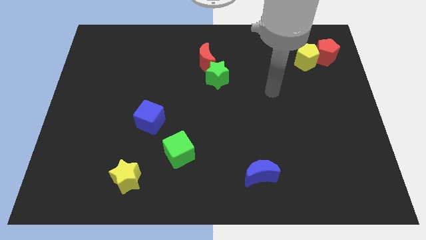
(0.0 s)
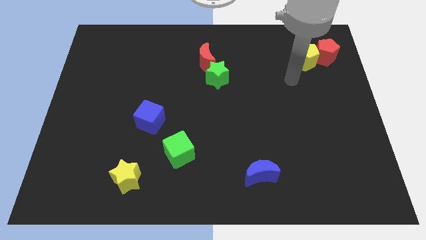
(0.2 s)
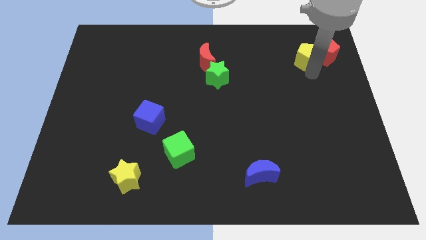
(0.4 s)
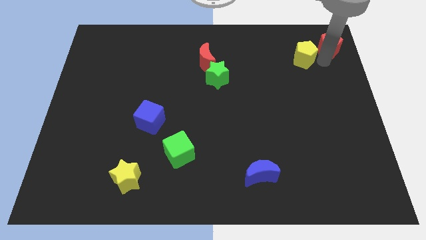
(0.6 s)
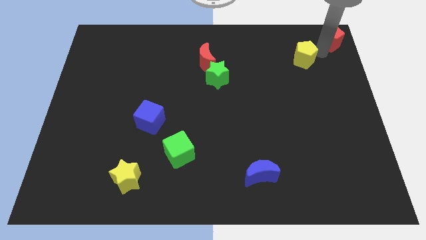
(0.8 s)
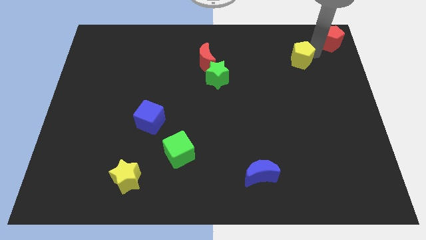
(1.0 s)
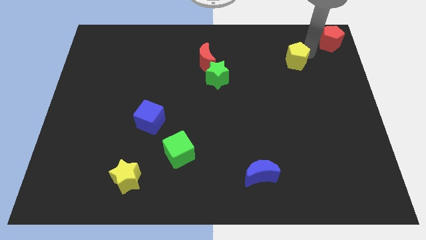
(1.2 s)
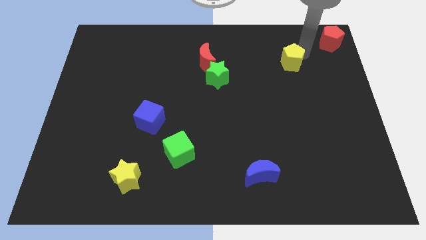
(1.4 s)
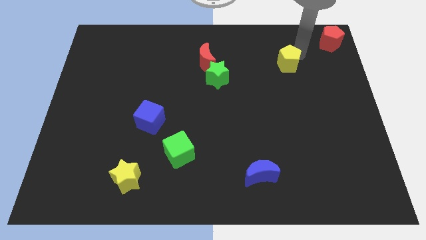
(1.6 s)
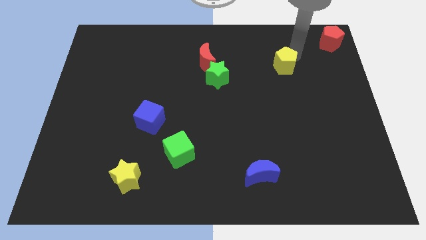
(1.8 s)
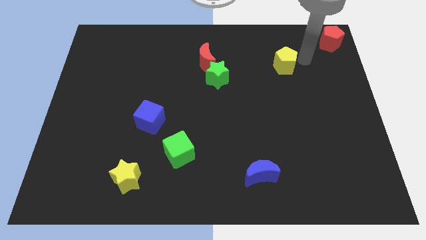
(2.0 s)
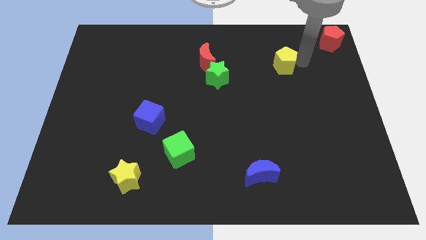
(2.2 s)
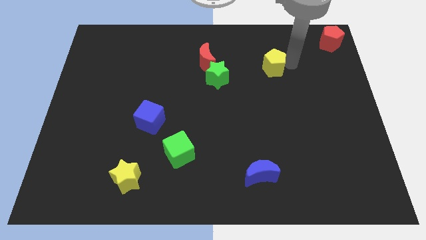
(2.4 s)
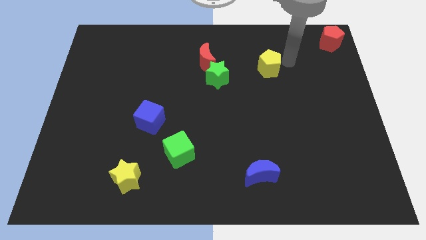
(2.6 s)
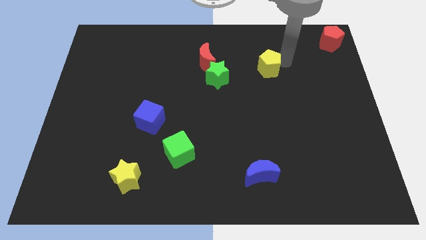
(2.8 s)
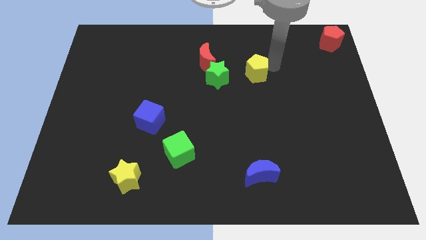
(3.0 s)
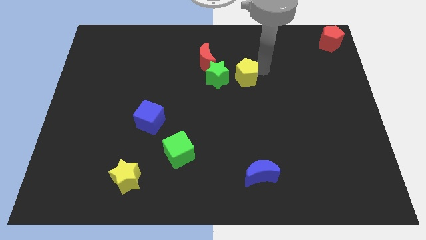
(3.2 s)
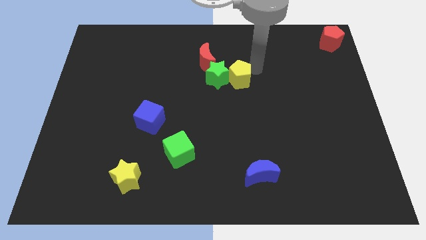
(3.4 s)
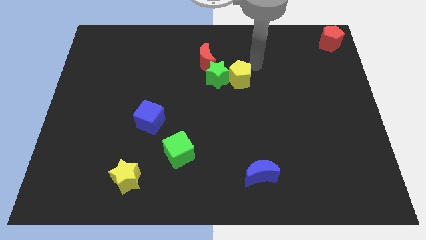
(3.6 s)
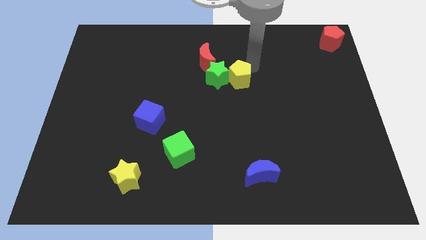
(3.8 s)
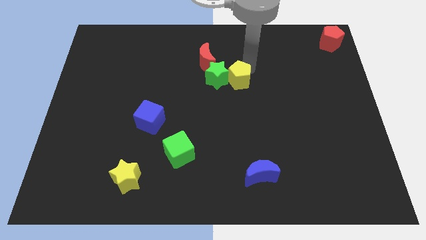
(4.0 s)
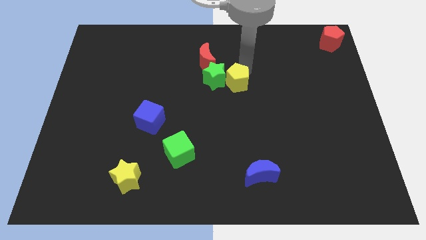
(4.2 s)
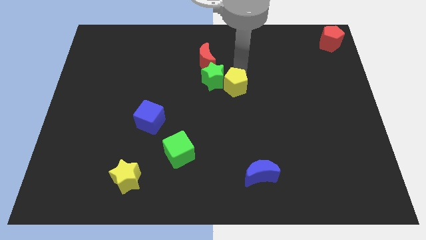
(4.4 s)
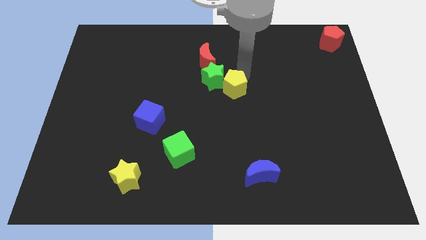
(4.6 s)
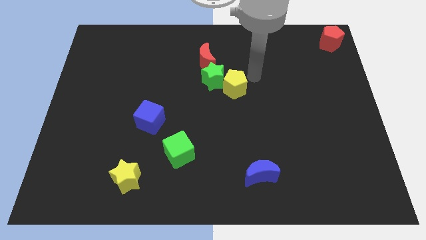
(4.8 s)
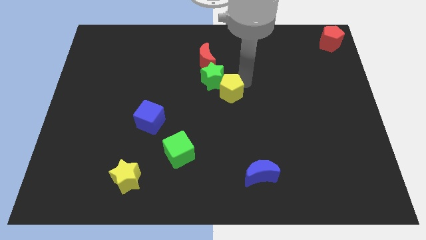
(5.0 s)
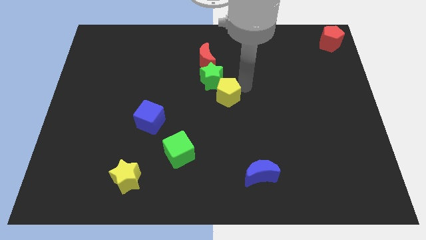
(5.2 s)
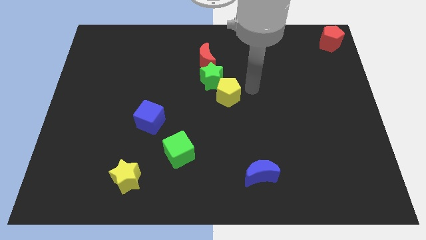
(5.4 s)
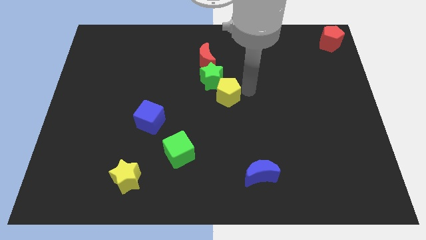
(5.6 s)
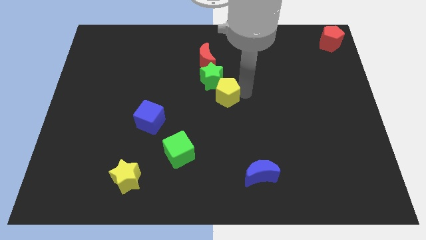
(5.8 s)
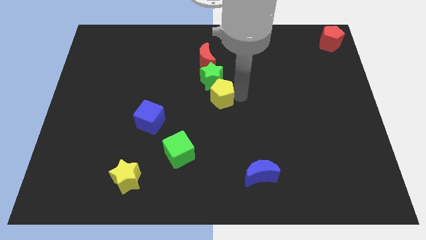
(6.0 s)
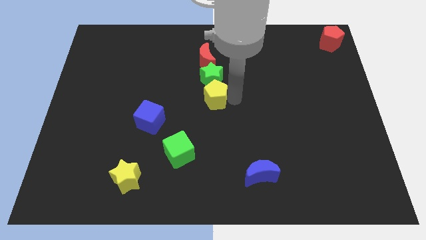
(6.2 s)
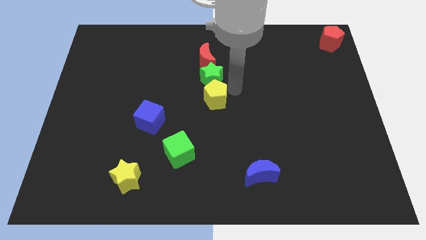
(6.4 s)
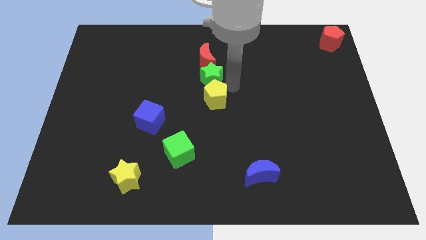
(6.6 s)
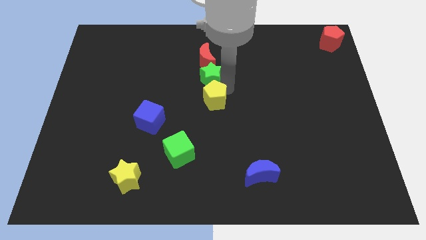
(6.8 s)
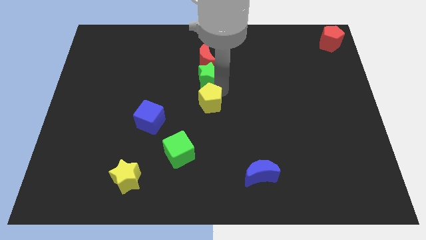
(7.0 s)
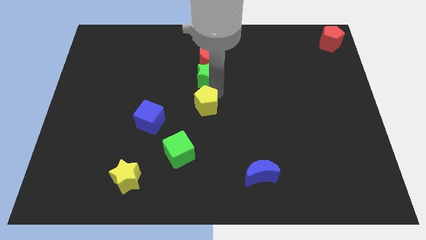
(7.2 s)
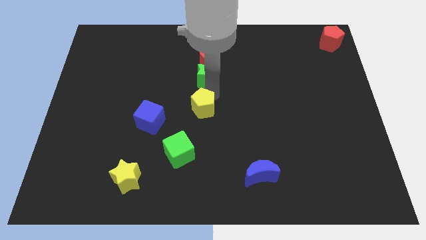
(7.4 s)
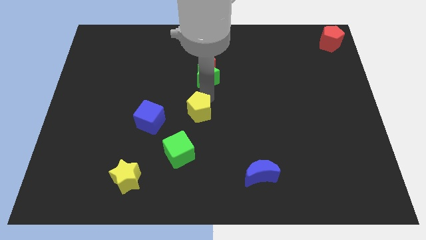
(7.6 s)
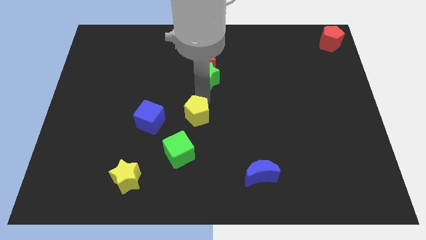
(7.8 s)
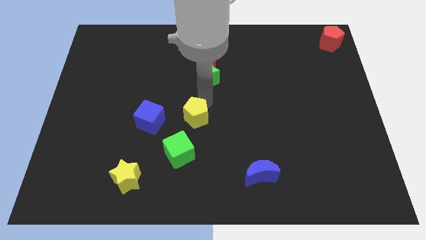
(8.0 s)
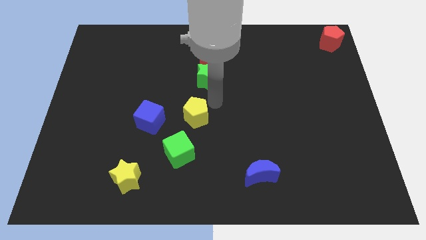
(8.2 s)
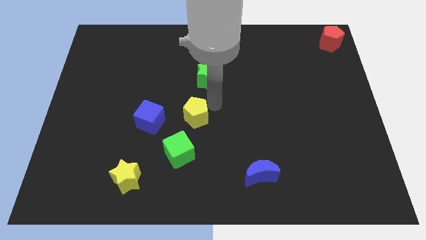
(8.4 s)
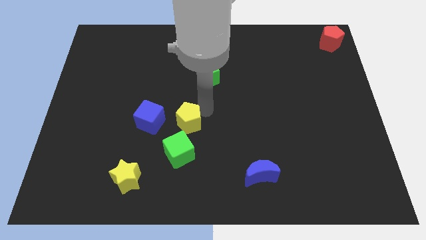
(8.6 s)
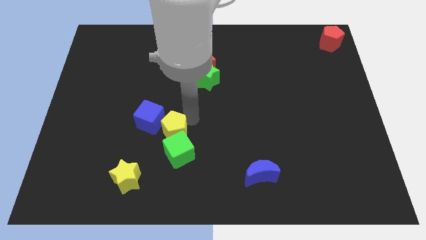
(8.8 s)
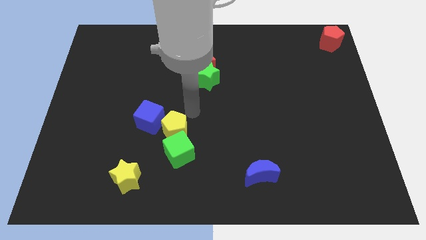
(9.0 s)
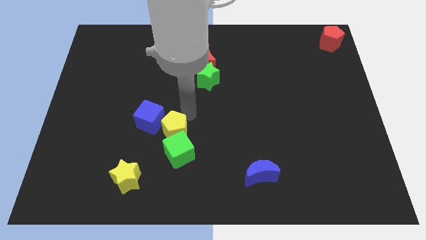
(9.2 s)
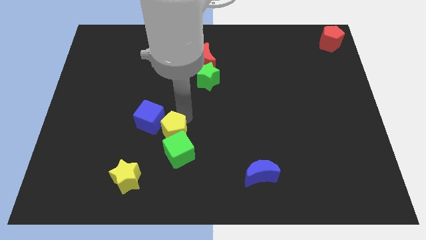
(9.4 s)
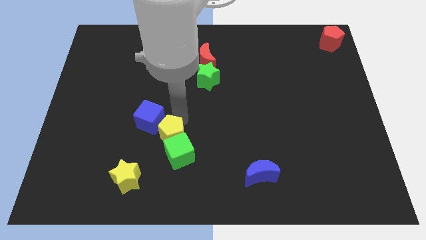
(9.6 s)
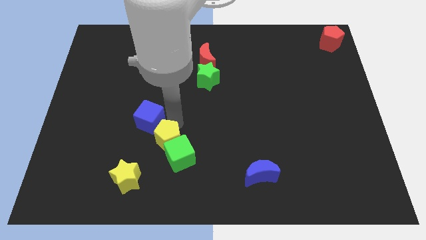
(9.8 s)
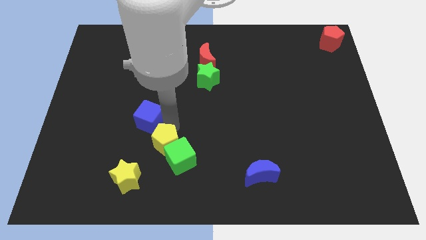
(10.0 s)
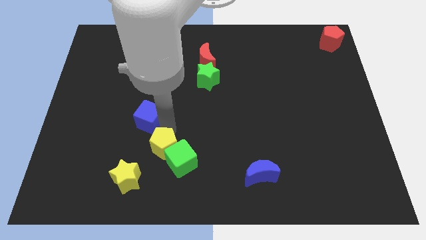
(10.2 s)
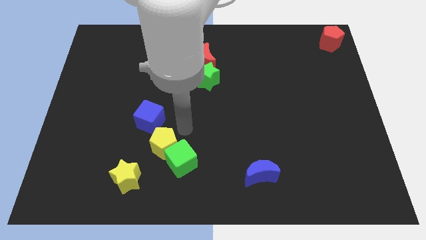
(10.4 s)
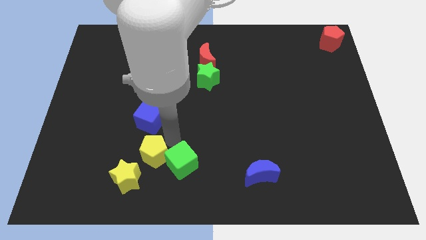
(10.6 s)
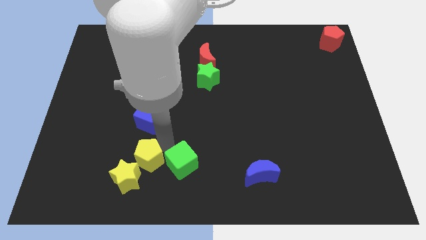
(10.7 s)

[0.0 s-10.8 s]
slide the yellow pentagon to the yellow star

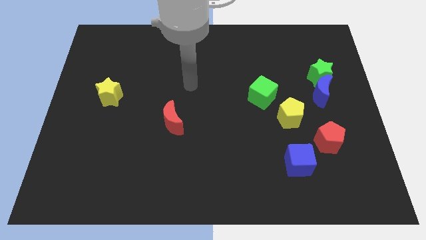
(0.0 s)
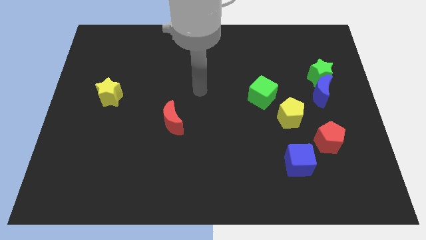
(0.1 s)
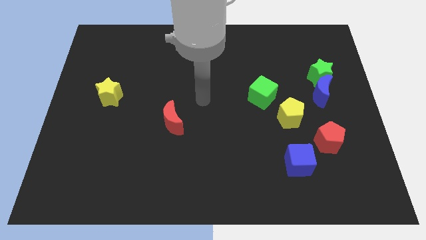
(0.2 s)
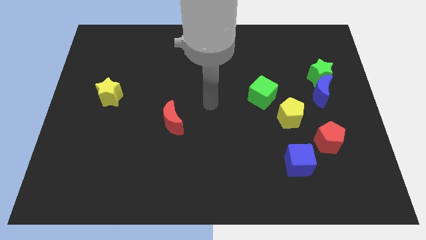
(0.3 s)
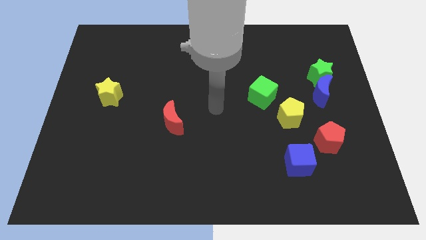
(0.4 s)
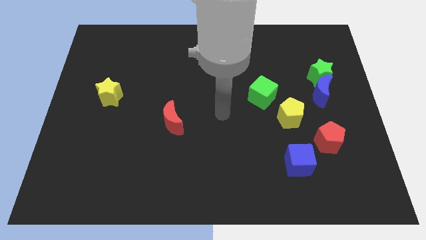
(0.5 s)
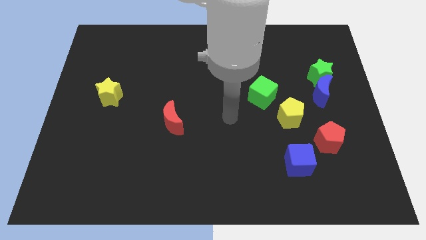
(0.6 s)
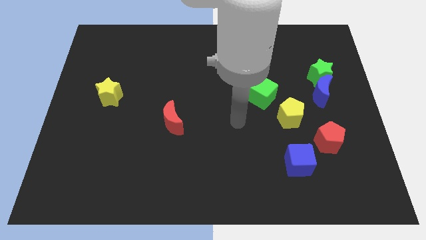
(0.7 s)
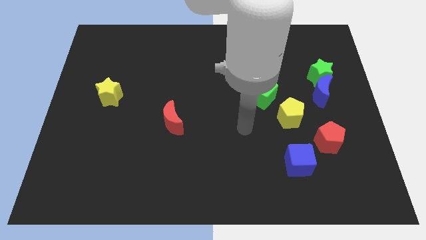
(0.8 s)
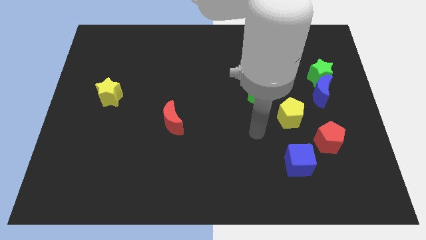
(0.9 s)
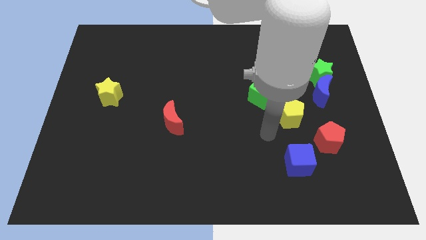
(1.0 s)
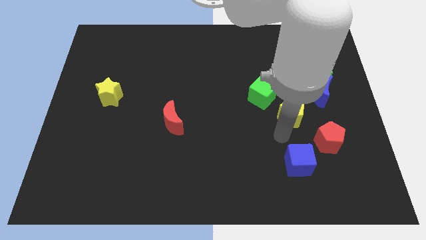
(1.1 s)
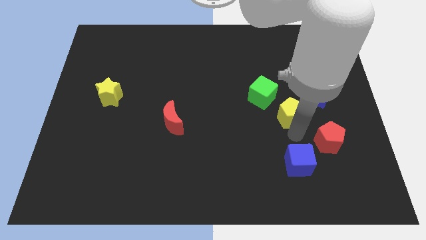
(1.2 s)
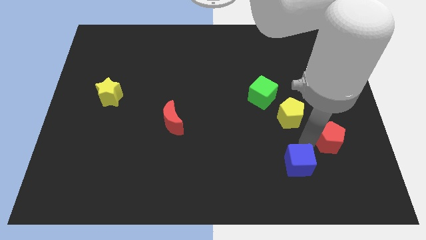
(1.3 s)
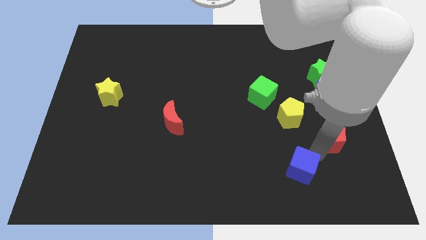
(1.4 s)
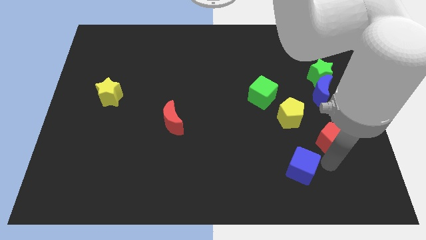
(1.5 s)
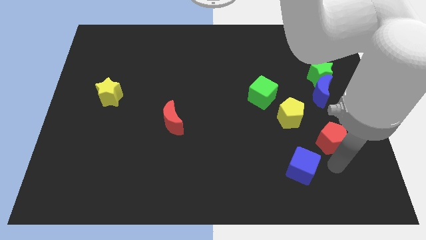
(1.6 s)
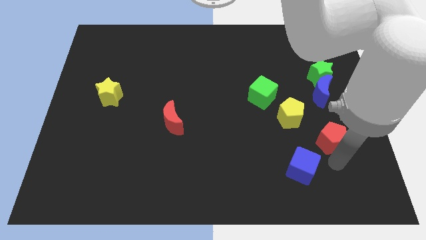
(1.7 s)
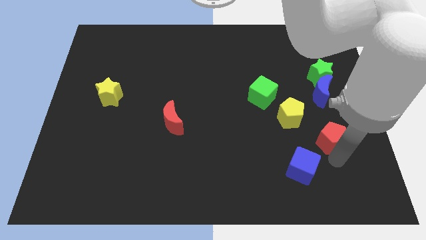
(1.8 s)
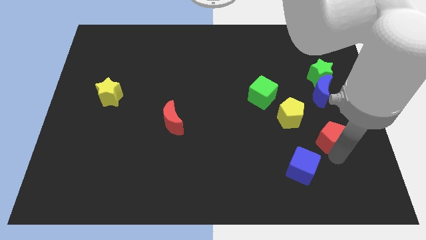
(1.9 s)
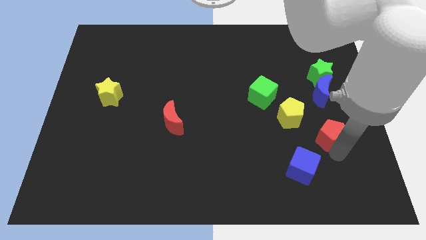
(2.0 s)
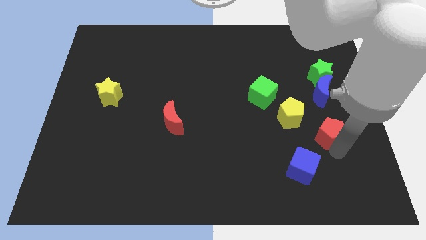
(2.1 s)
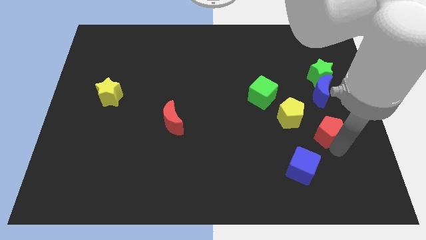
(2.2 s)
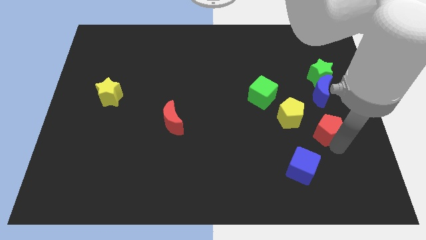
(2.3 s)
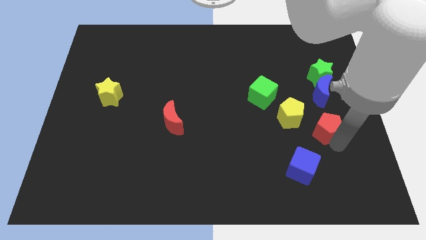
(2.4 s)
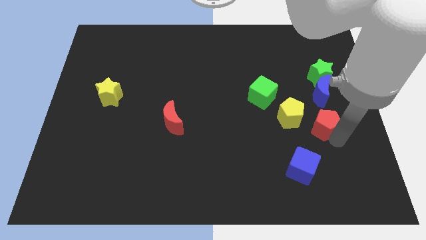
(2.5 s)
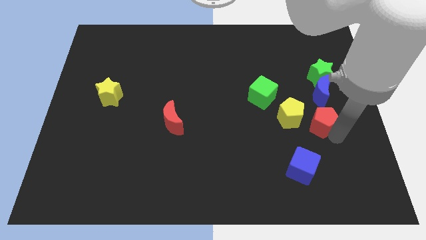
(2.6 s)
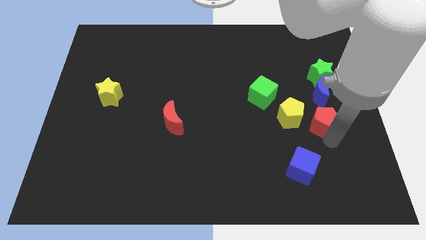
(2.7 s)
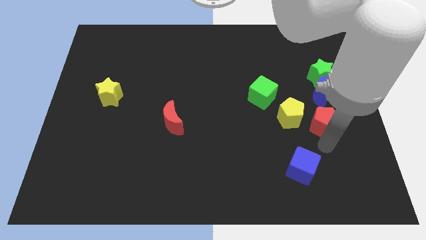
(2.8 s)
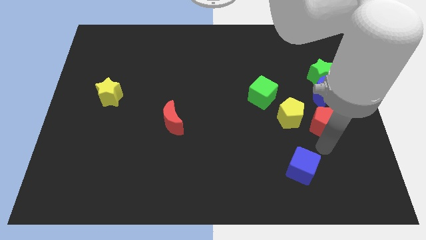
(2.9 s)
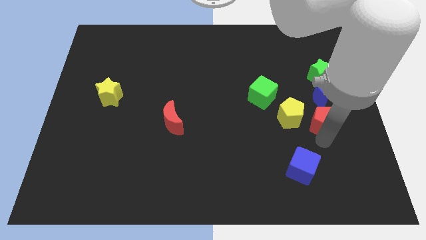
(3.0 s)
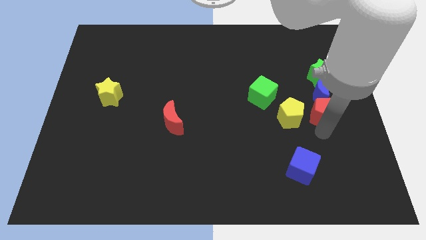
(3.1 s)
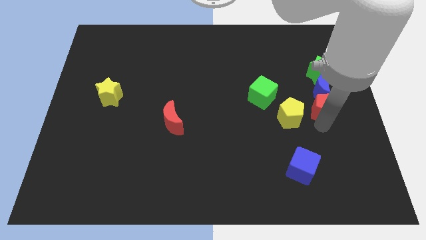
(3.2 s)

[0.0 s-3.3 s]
slide the red pentagon next to the blue moon
